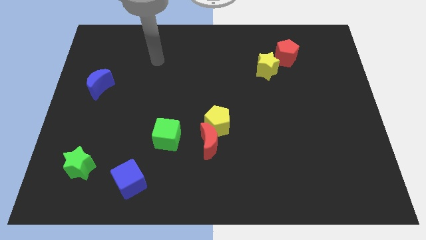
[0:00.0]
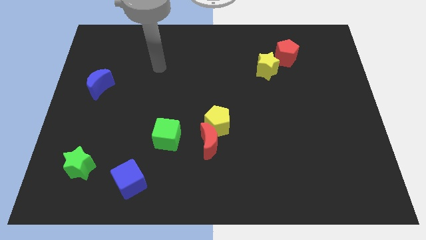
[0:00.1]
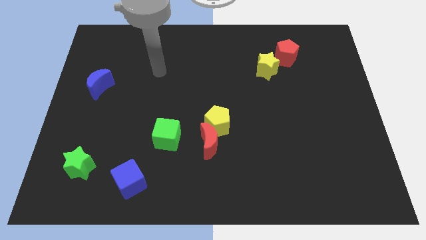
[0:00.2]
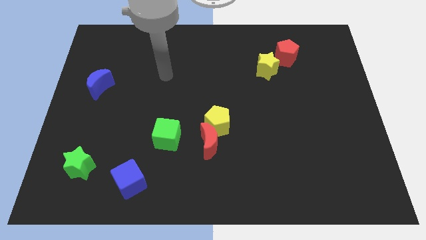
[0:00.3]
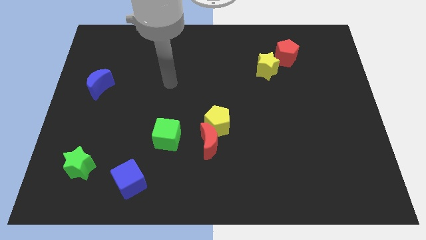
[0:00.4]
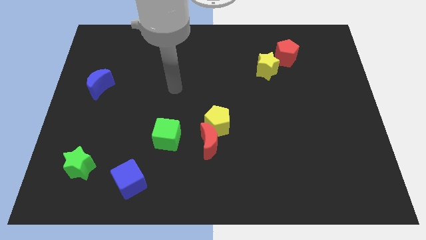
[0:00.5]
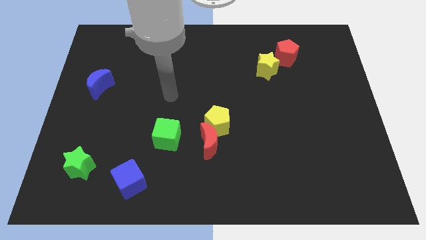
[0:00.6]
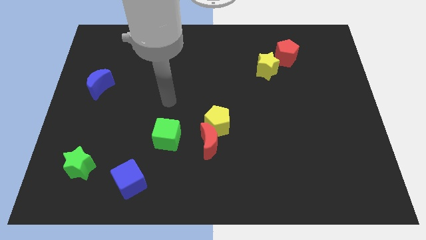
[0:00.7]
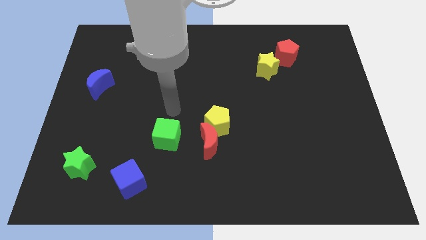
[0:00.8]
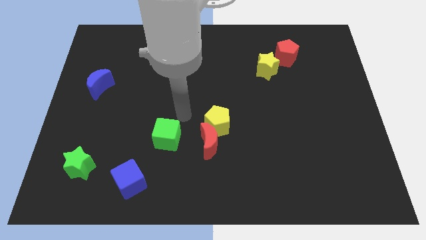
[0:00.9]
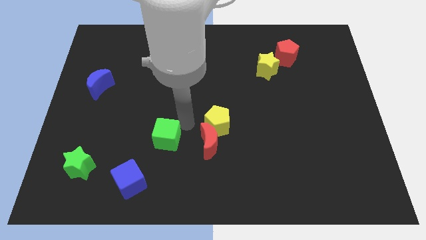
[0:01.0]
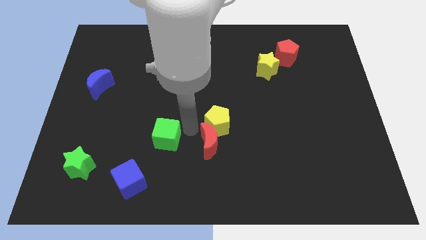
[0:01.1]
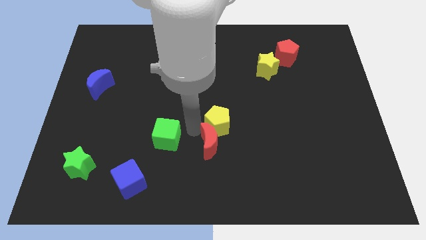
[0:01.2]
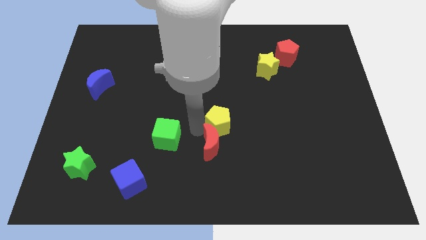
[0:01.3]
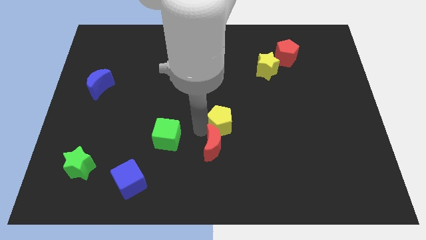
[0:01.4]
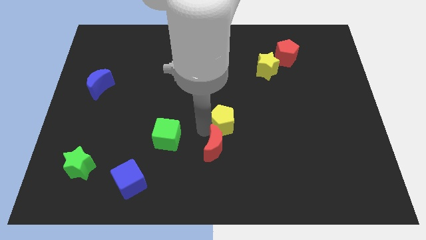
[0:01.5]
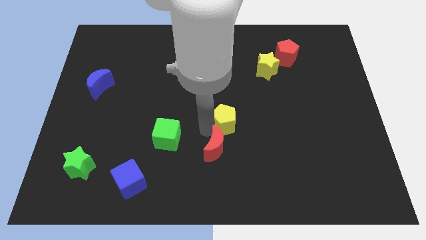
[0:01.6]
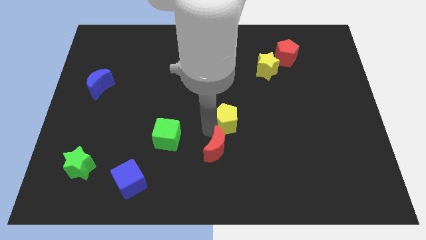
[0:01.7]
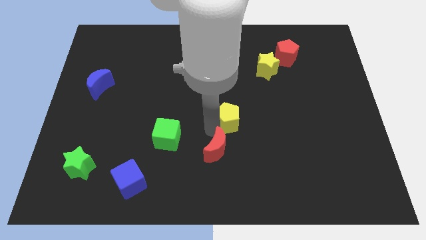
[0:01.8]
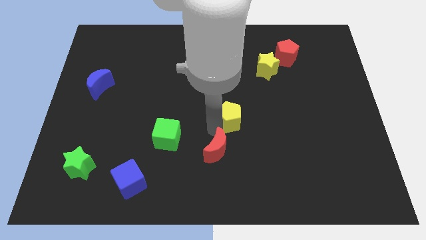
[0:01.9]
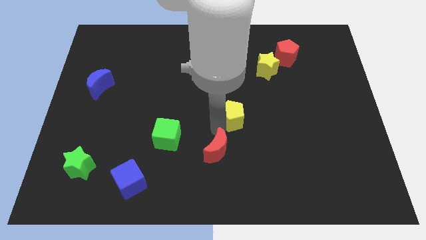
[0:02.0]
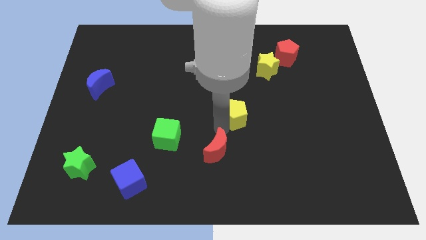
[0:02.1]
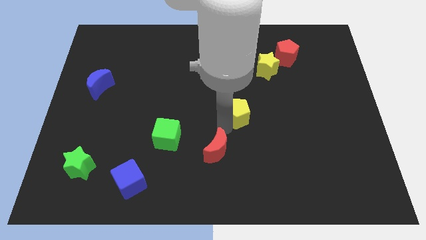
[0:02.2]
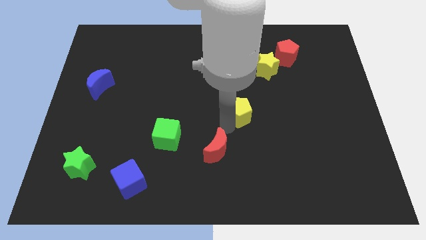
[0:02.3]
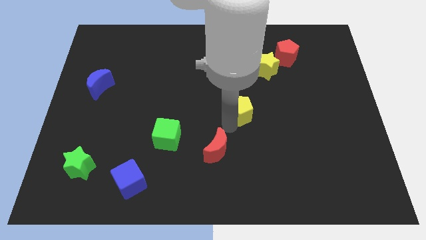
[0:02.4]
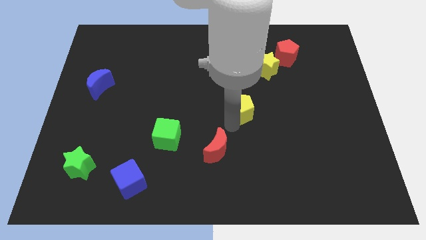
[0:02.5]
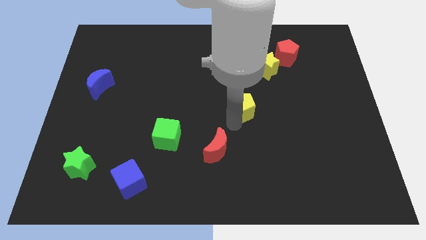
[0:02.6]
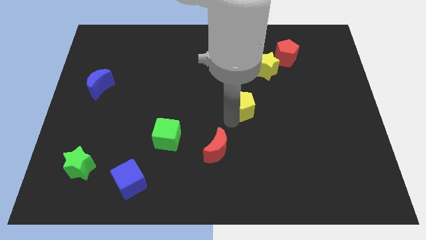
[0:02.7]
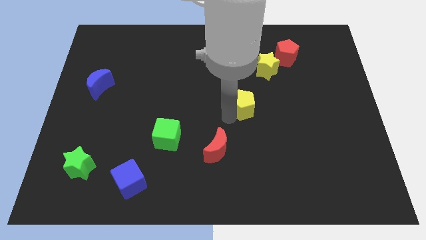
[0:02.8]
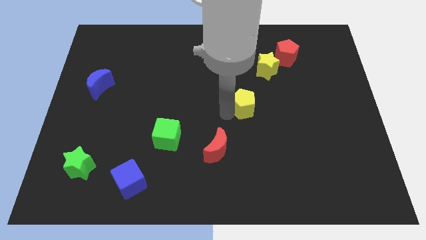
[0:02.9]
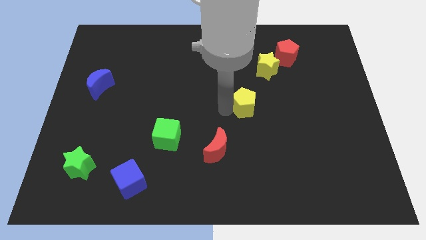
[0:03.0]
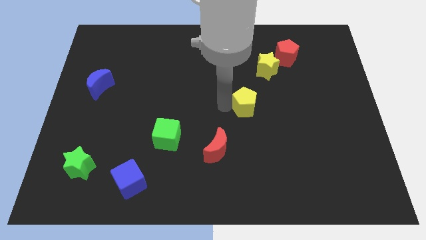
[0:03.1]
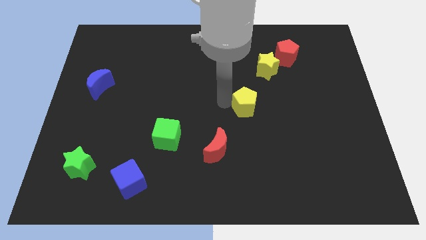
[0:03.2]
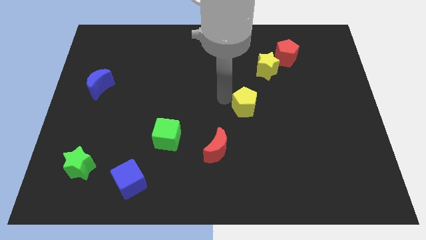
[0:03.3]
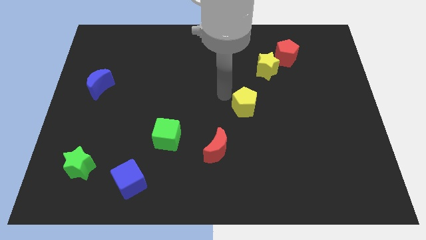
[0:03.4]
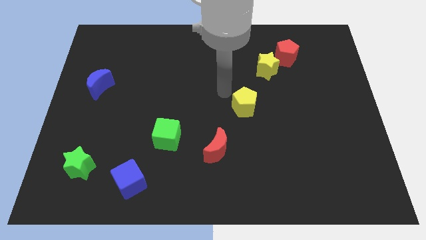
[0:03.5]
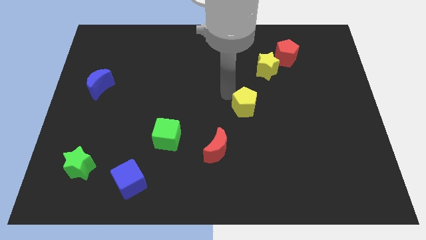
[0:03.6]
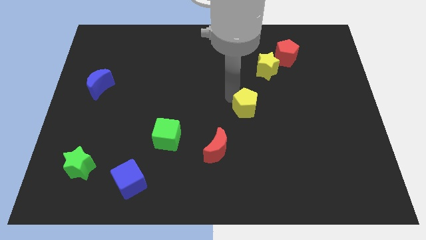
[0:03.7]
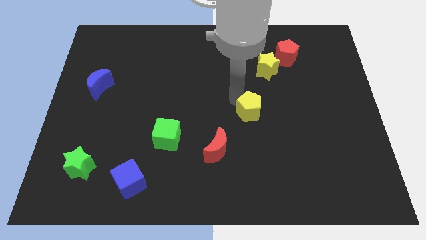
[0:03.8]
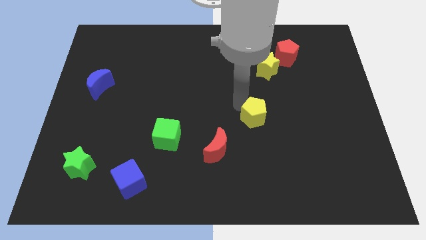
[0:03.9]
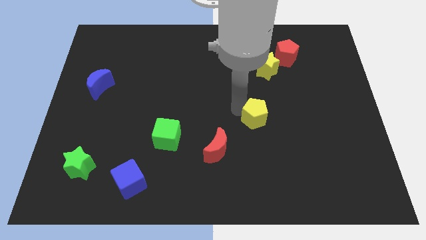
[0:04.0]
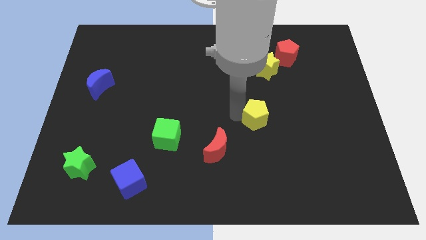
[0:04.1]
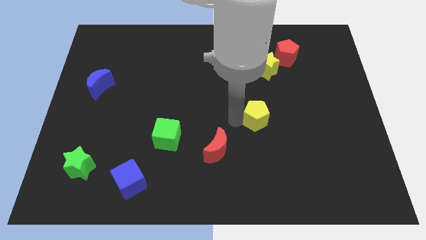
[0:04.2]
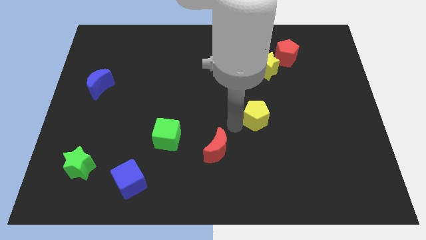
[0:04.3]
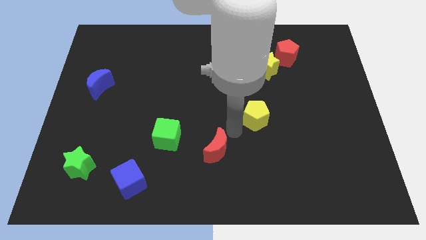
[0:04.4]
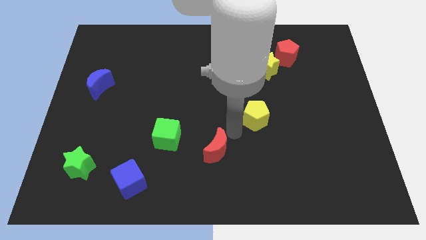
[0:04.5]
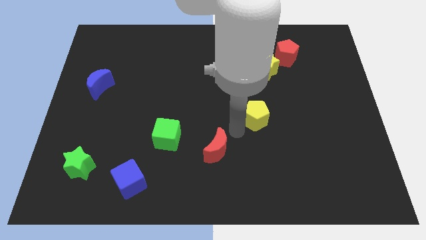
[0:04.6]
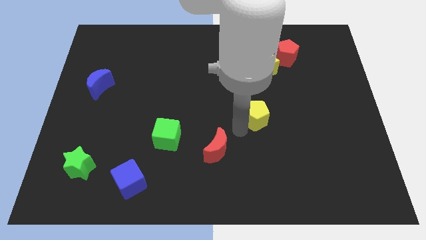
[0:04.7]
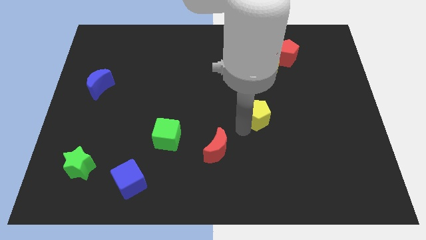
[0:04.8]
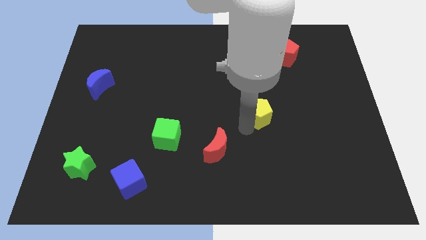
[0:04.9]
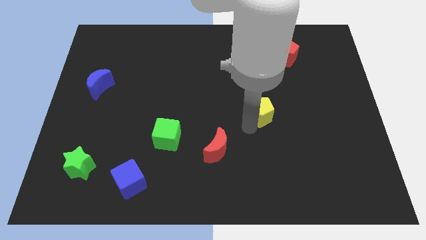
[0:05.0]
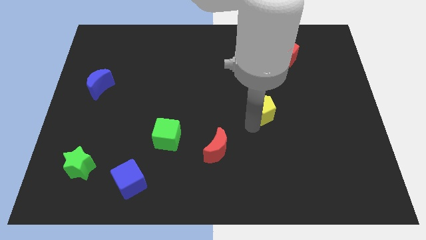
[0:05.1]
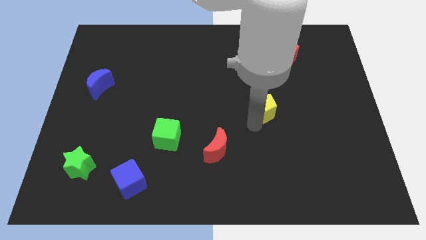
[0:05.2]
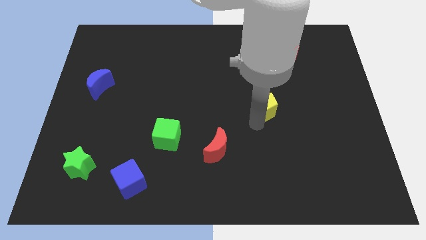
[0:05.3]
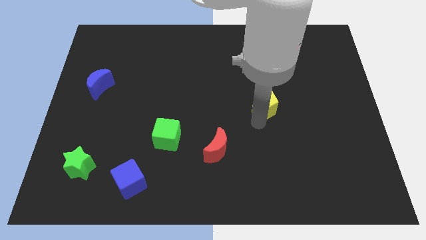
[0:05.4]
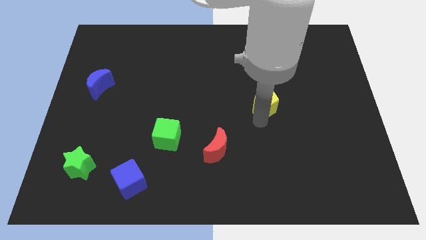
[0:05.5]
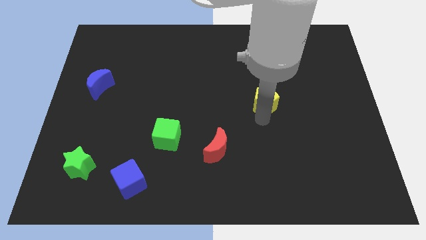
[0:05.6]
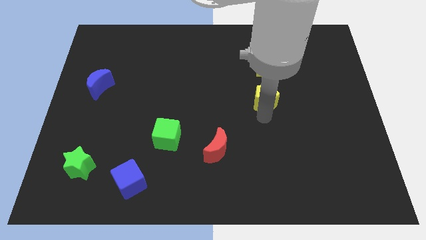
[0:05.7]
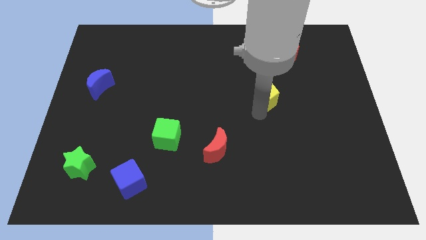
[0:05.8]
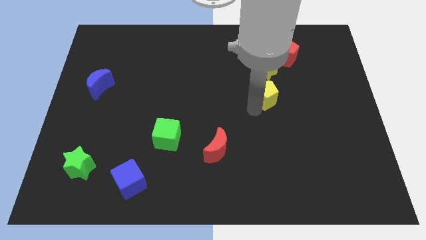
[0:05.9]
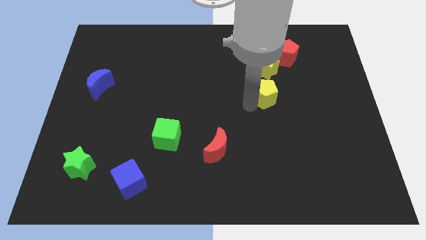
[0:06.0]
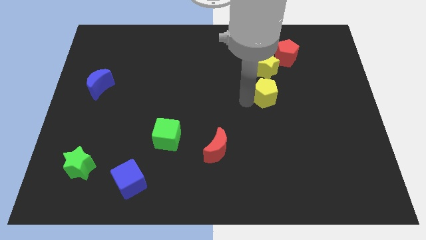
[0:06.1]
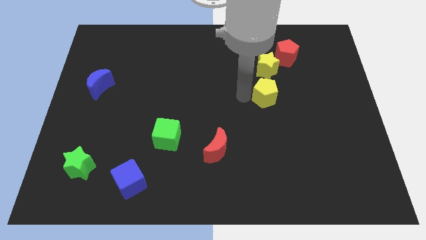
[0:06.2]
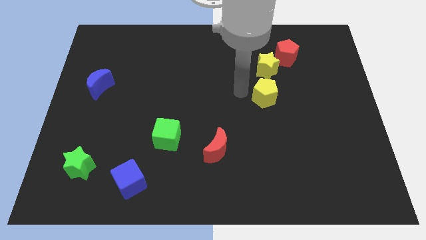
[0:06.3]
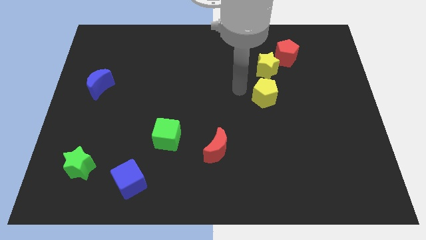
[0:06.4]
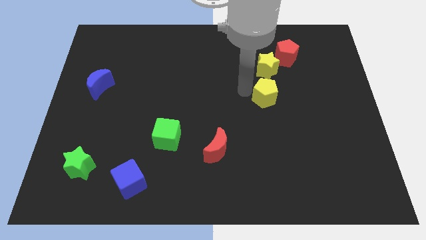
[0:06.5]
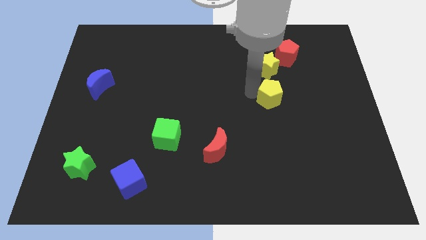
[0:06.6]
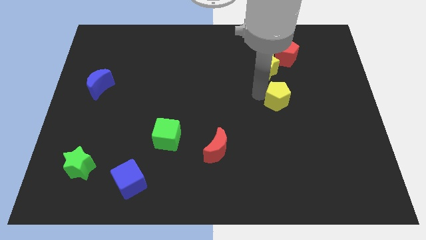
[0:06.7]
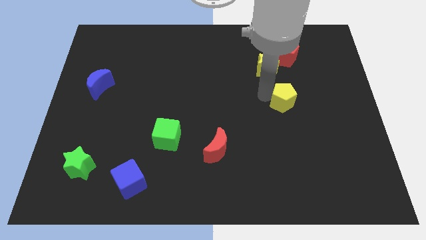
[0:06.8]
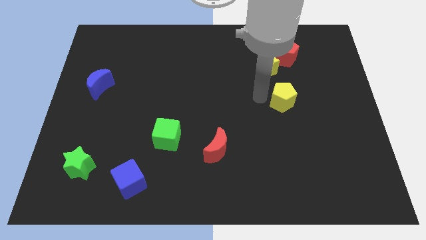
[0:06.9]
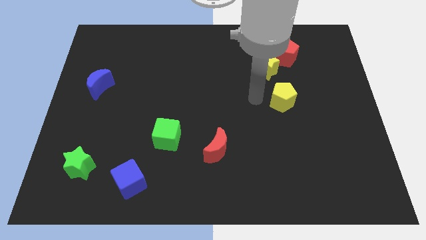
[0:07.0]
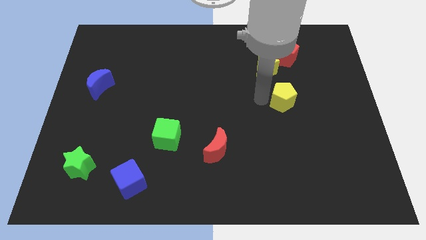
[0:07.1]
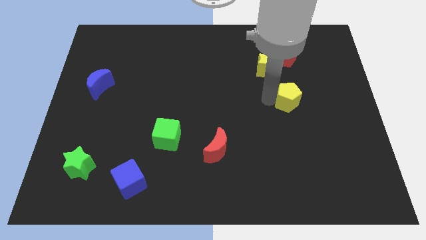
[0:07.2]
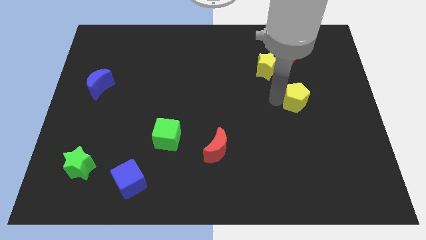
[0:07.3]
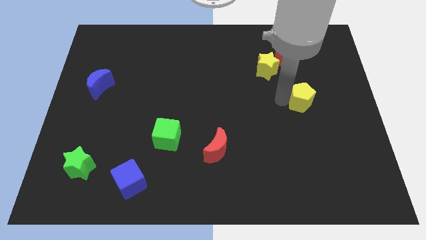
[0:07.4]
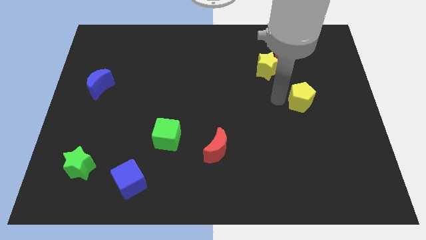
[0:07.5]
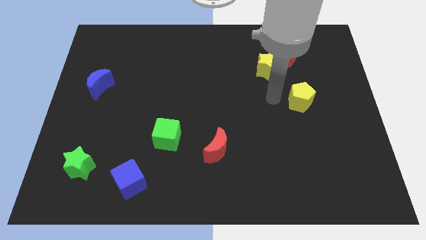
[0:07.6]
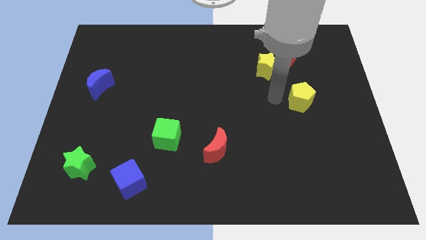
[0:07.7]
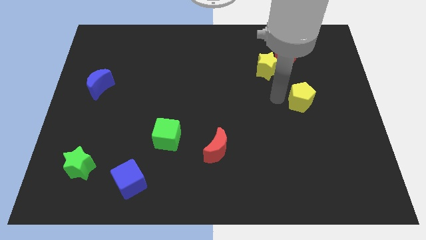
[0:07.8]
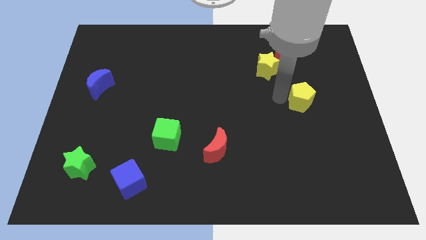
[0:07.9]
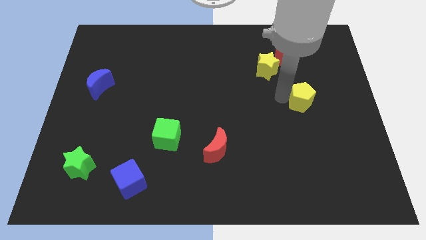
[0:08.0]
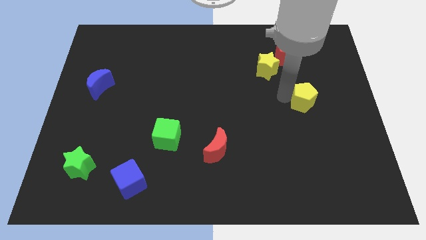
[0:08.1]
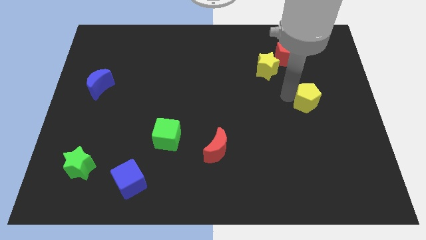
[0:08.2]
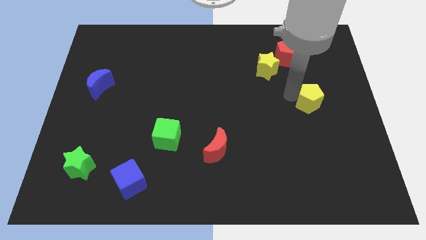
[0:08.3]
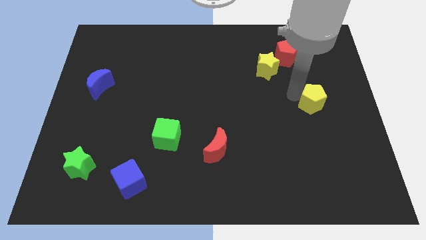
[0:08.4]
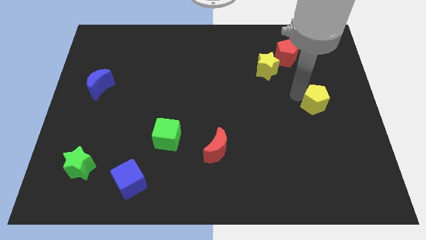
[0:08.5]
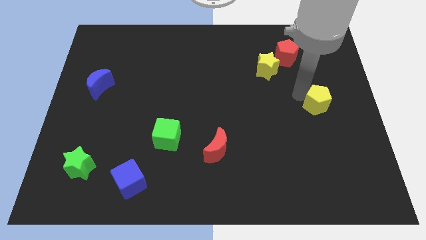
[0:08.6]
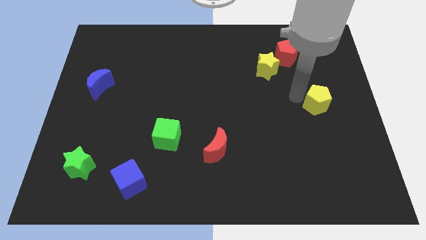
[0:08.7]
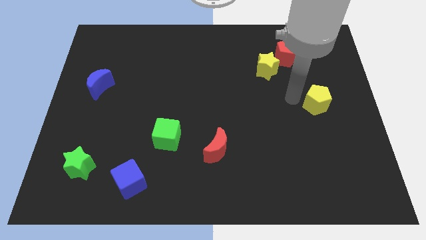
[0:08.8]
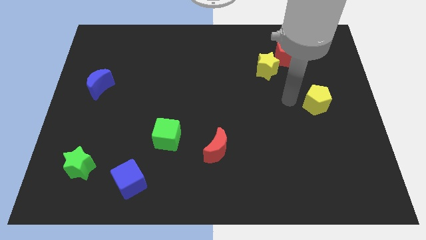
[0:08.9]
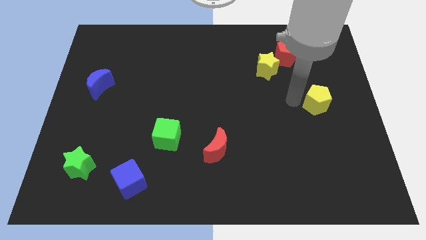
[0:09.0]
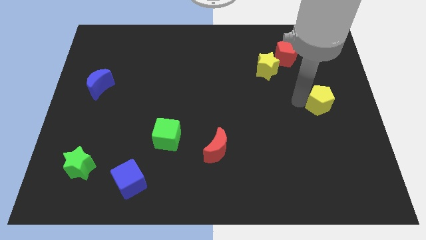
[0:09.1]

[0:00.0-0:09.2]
push the yellow pentagon to the center right
